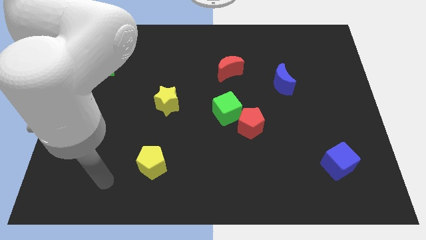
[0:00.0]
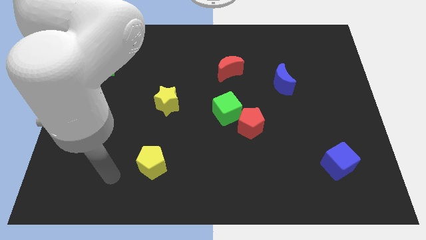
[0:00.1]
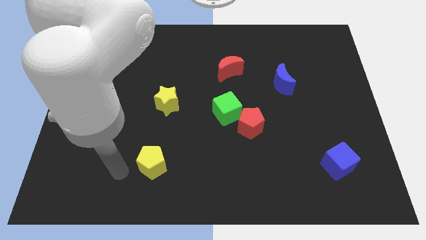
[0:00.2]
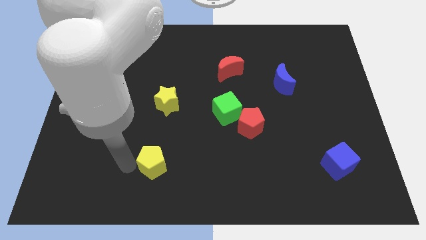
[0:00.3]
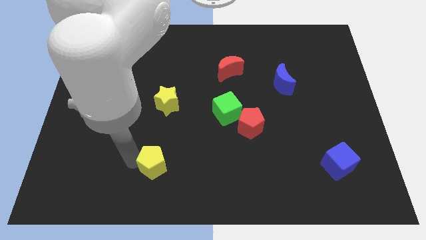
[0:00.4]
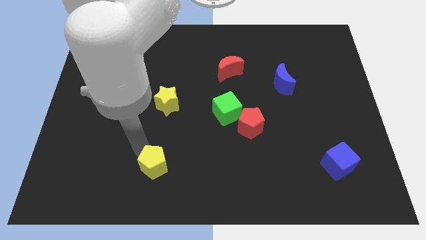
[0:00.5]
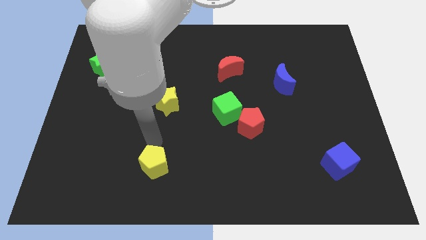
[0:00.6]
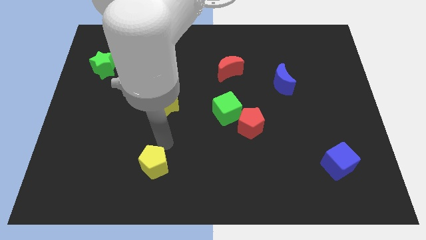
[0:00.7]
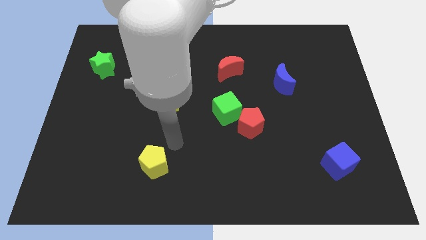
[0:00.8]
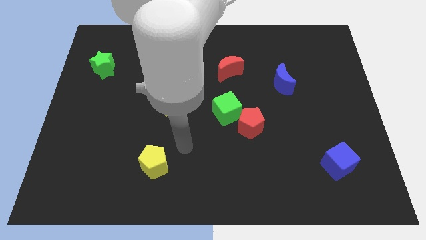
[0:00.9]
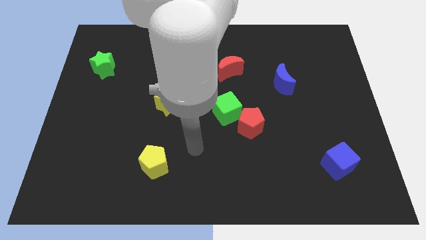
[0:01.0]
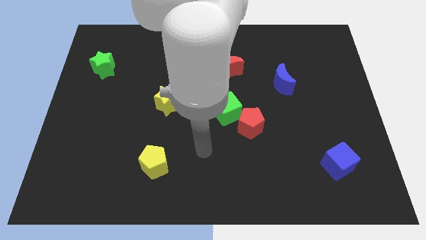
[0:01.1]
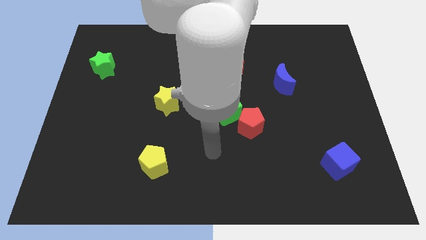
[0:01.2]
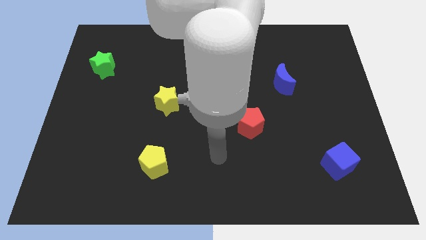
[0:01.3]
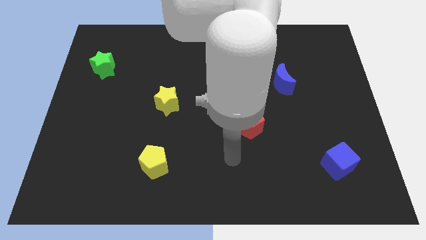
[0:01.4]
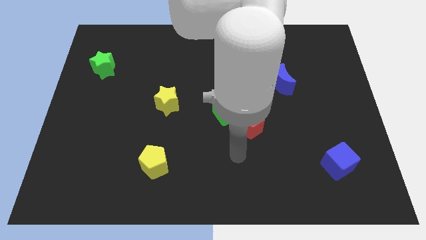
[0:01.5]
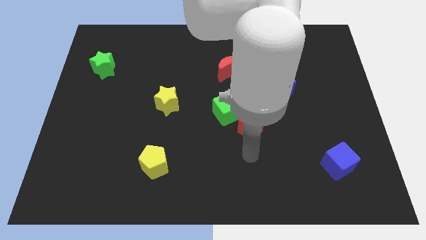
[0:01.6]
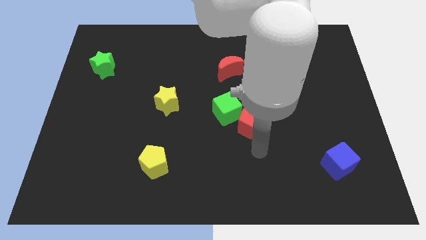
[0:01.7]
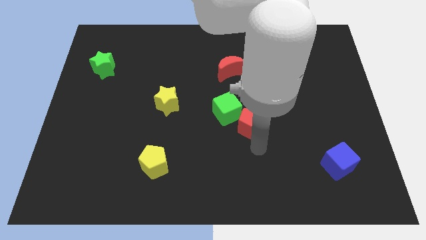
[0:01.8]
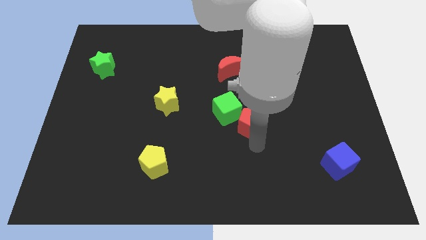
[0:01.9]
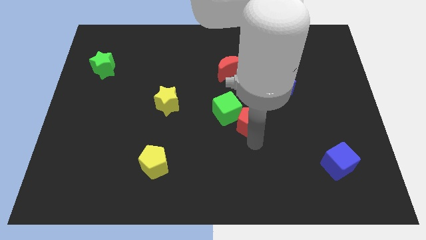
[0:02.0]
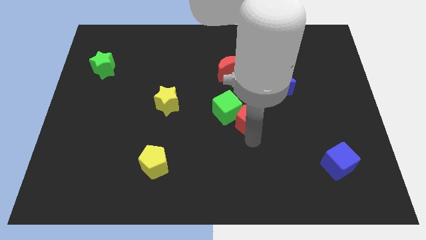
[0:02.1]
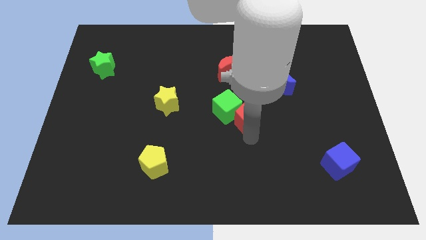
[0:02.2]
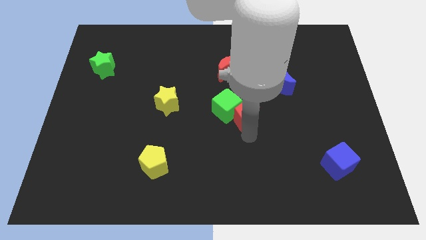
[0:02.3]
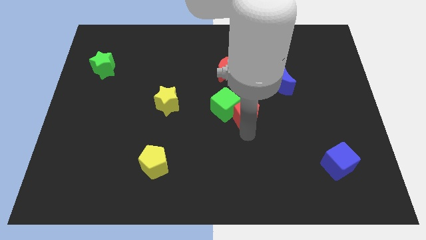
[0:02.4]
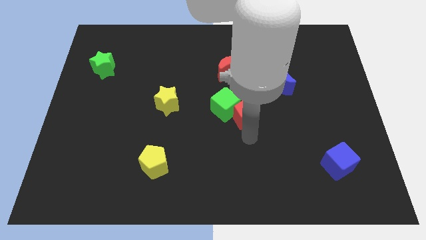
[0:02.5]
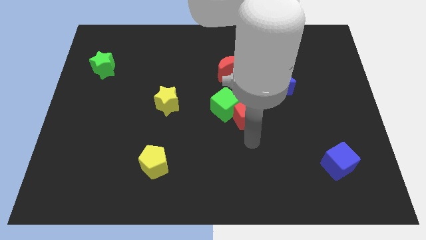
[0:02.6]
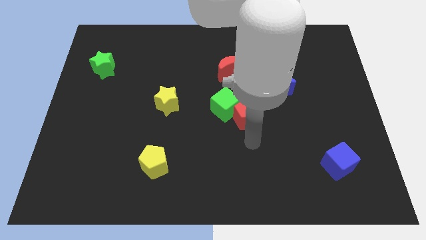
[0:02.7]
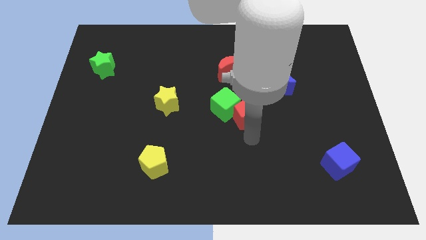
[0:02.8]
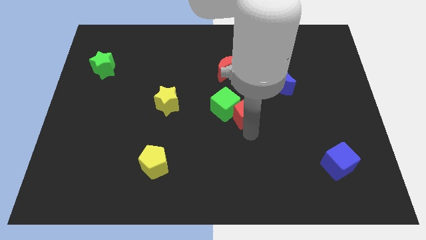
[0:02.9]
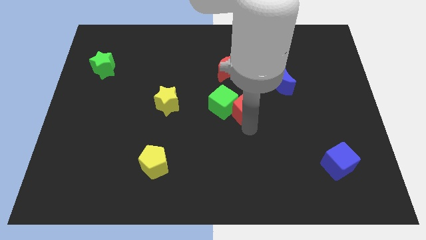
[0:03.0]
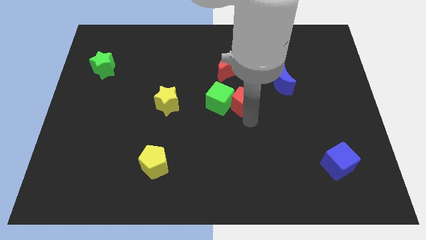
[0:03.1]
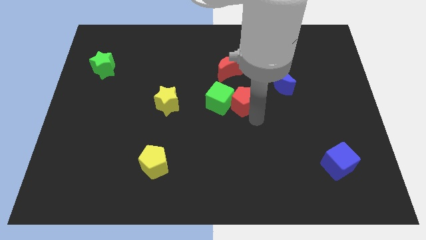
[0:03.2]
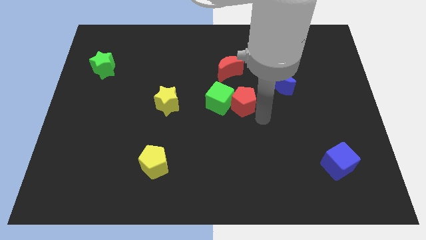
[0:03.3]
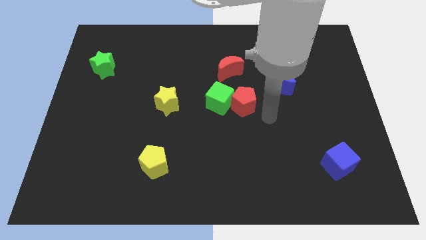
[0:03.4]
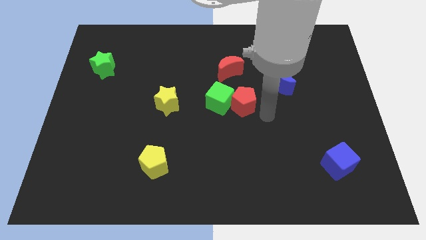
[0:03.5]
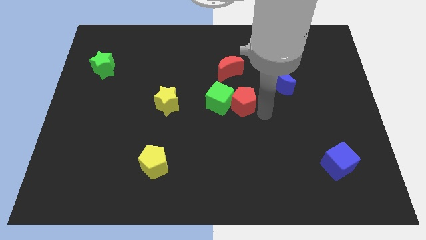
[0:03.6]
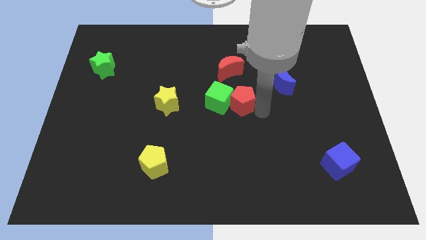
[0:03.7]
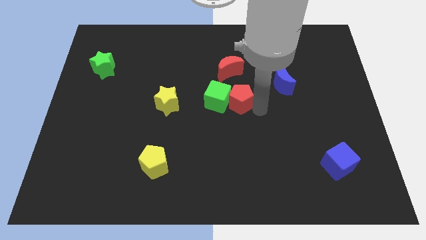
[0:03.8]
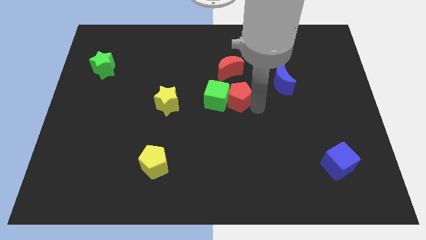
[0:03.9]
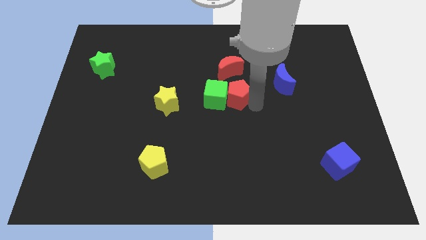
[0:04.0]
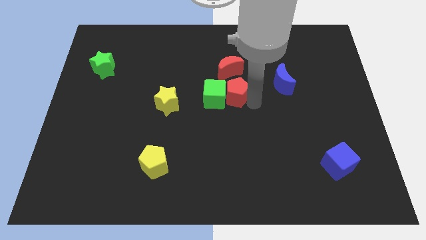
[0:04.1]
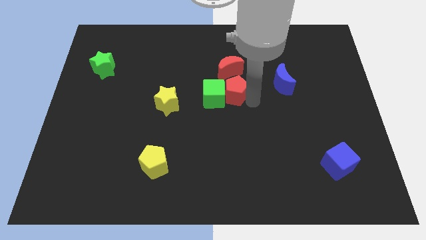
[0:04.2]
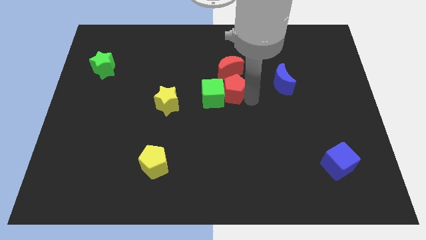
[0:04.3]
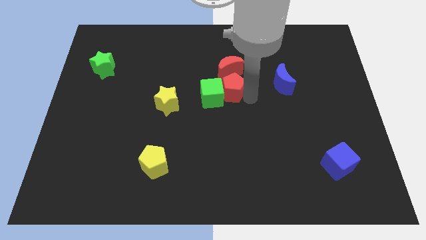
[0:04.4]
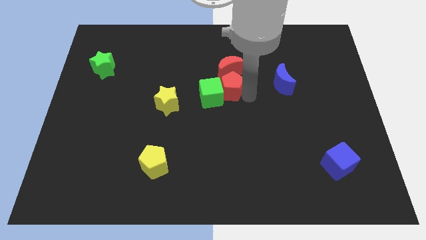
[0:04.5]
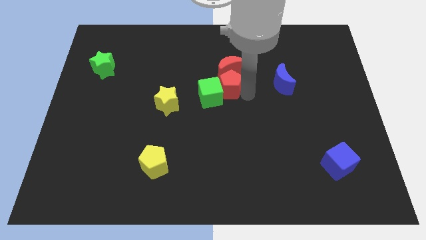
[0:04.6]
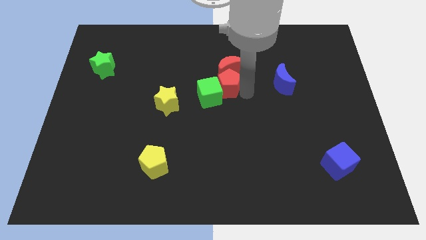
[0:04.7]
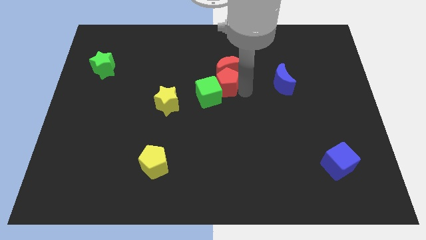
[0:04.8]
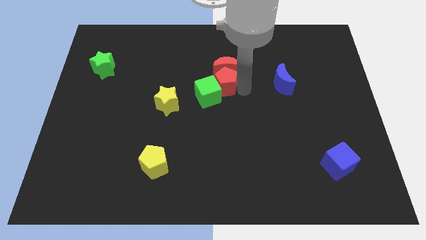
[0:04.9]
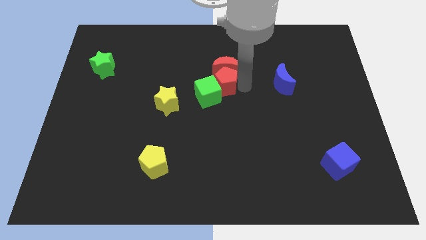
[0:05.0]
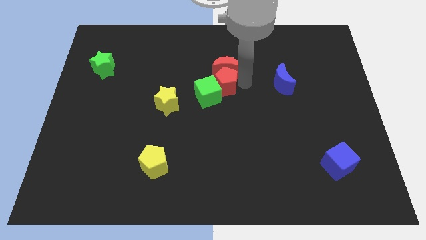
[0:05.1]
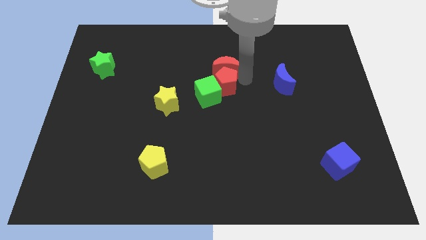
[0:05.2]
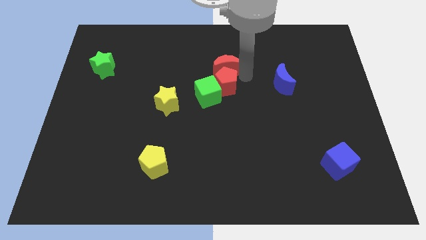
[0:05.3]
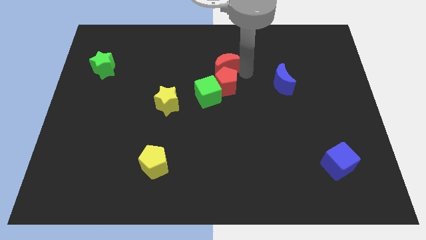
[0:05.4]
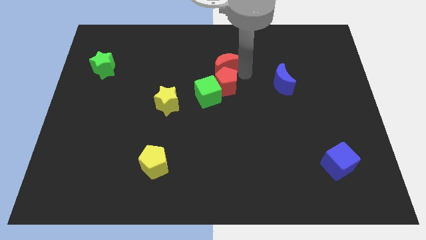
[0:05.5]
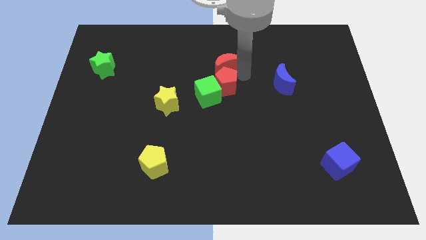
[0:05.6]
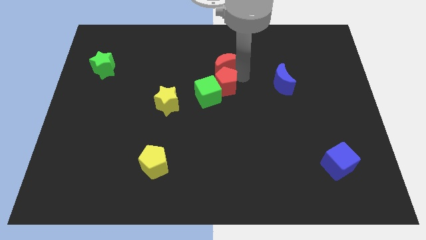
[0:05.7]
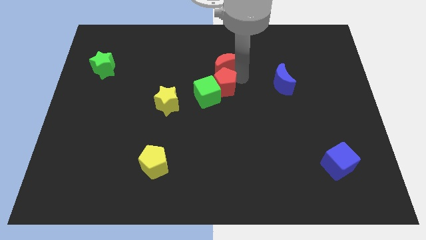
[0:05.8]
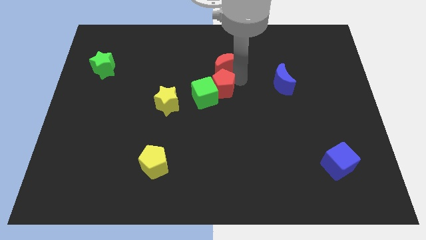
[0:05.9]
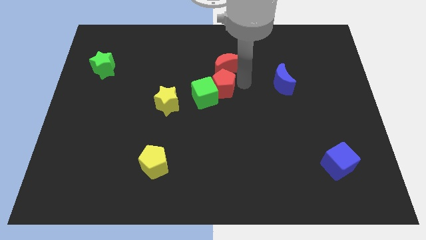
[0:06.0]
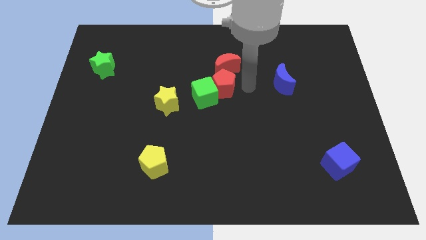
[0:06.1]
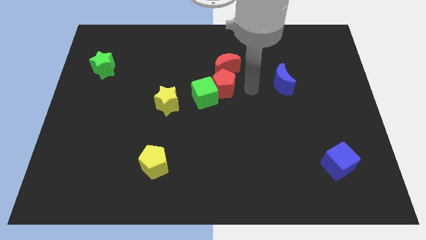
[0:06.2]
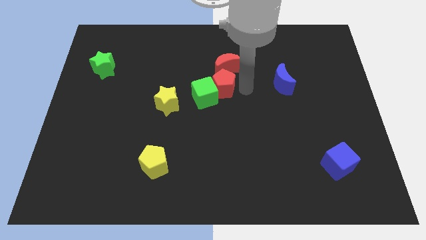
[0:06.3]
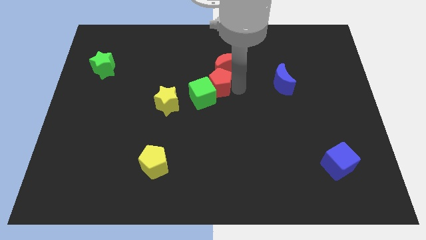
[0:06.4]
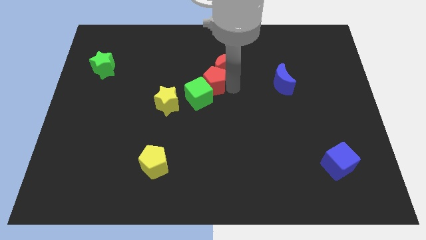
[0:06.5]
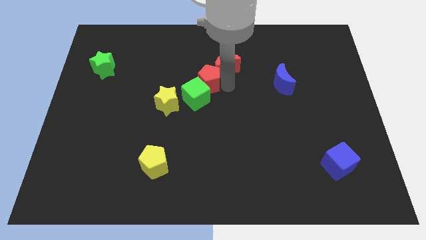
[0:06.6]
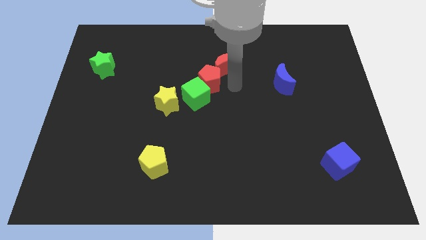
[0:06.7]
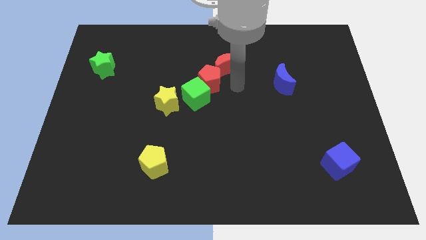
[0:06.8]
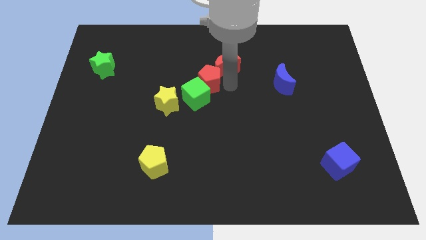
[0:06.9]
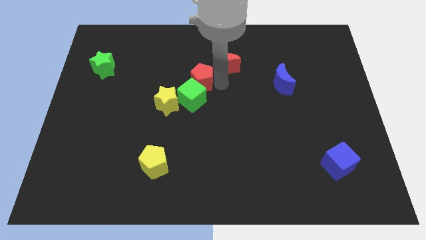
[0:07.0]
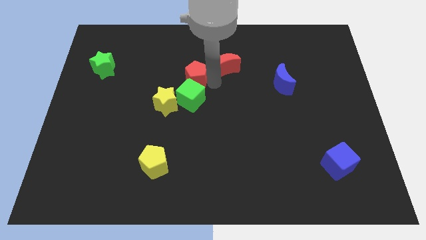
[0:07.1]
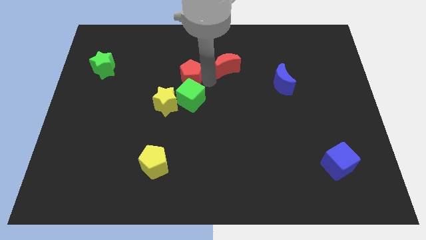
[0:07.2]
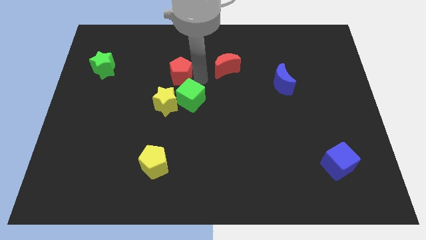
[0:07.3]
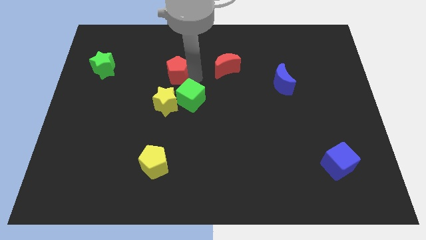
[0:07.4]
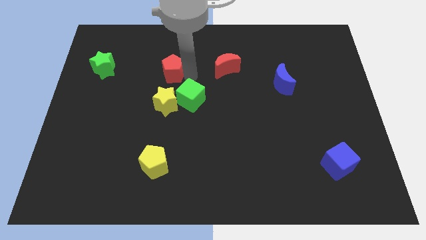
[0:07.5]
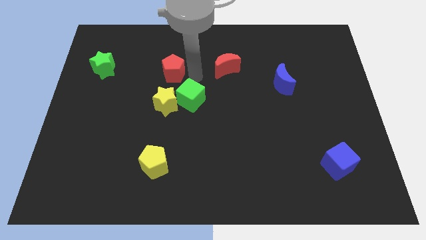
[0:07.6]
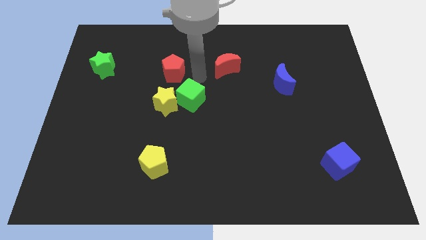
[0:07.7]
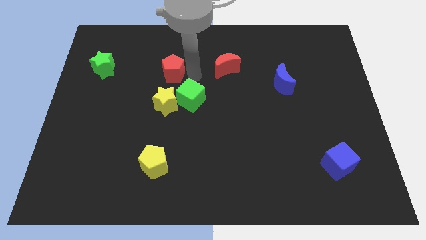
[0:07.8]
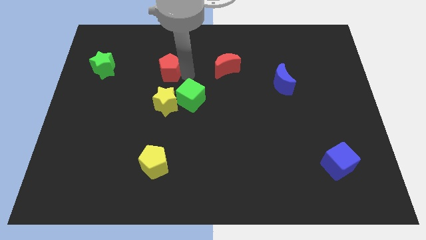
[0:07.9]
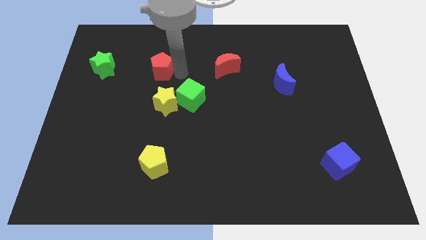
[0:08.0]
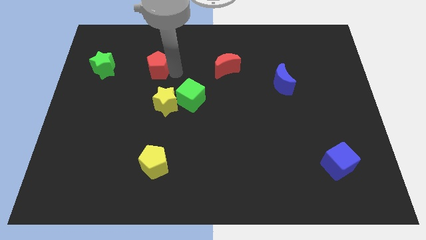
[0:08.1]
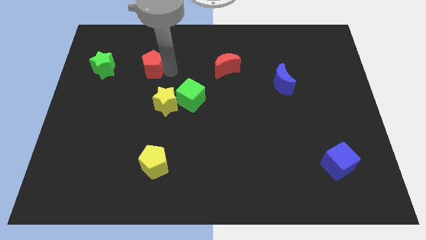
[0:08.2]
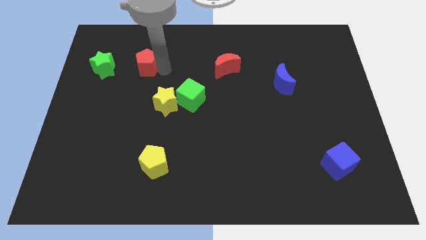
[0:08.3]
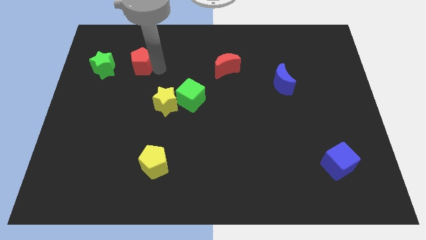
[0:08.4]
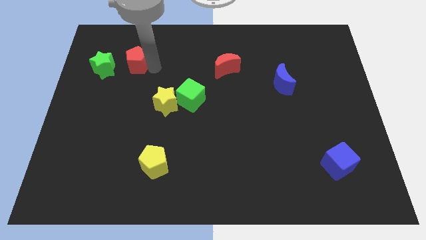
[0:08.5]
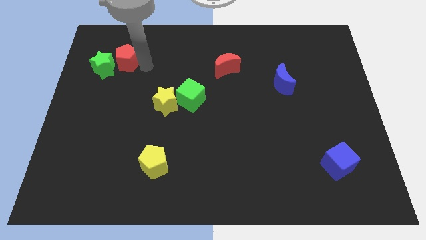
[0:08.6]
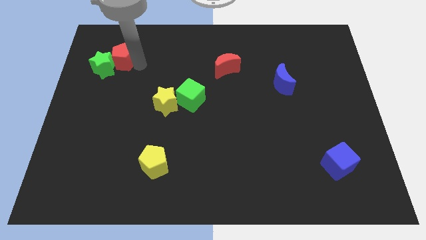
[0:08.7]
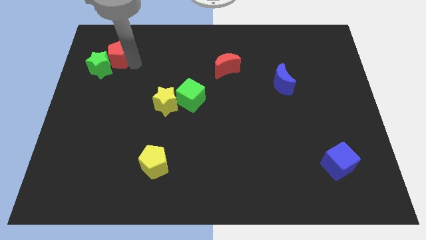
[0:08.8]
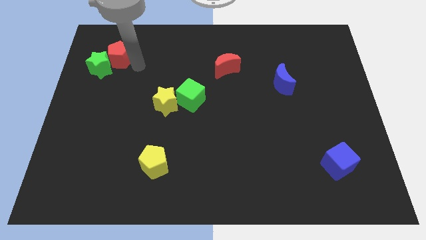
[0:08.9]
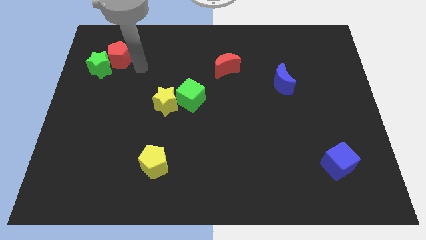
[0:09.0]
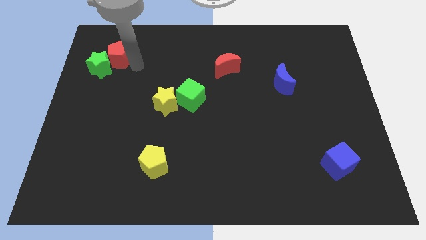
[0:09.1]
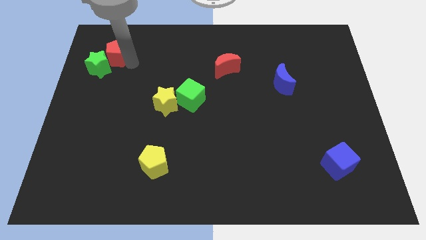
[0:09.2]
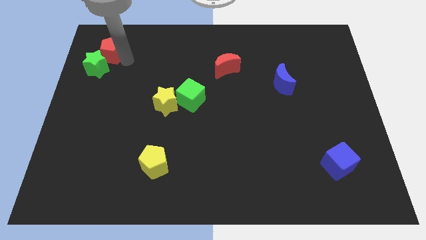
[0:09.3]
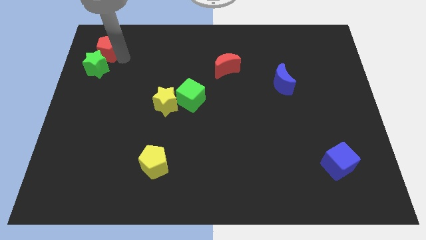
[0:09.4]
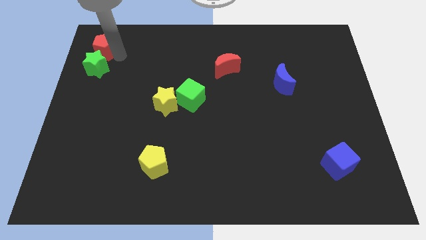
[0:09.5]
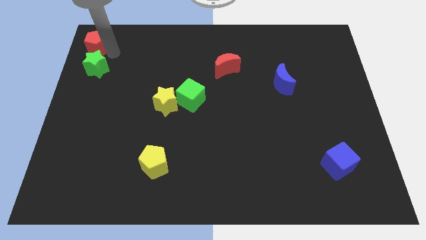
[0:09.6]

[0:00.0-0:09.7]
slide the red pentagon to the top left
